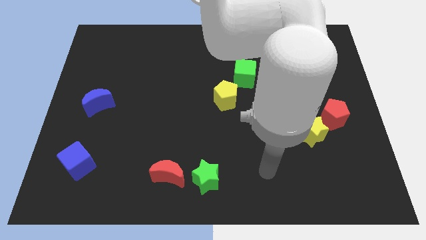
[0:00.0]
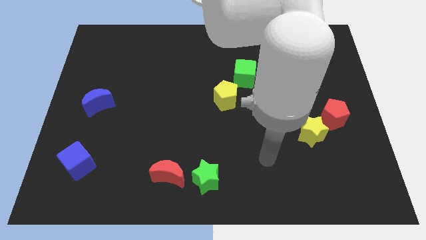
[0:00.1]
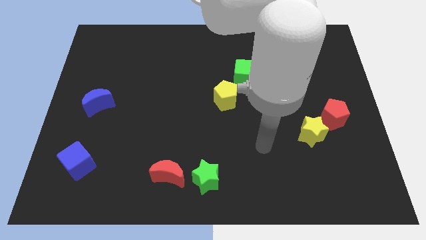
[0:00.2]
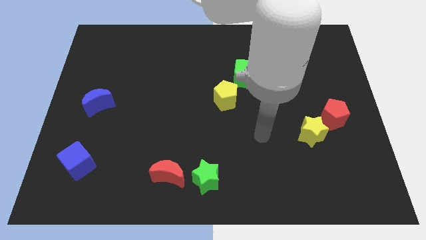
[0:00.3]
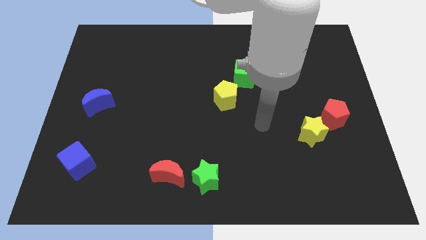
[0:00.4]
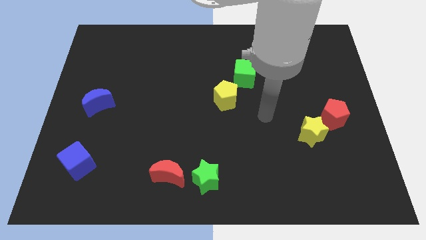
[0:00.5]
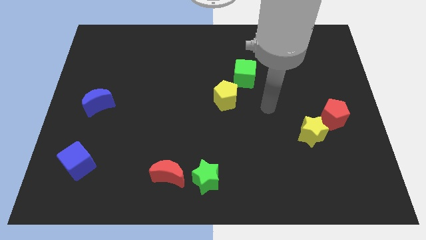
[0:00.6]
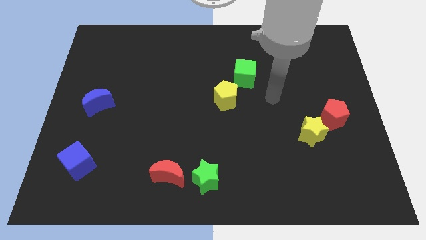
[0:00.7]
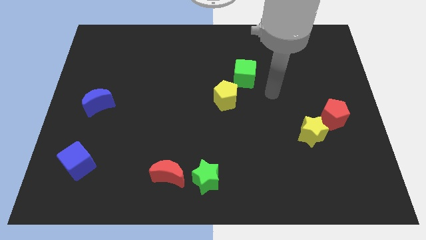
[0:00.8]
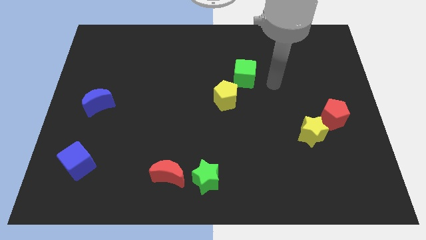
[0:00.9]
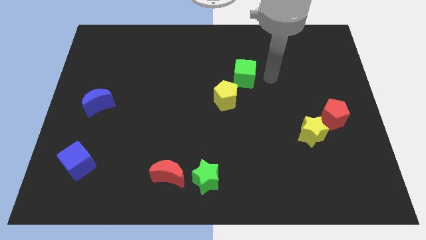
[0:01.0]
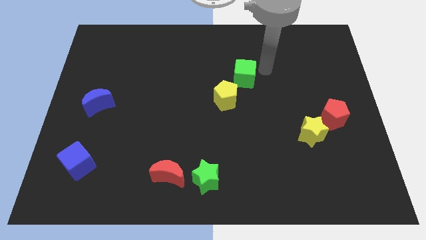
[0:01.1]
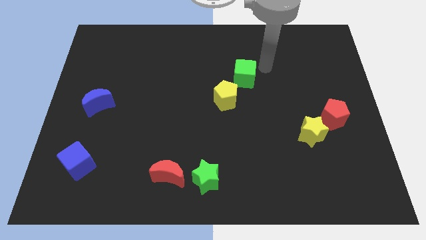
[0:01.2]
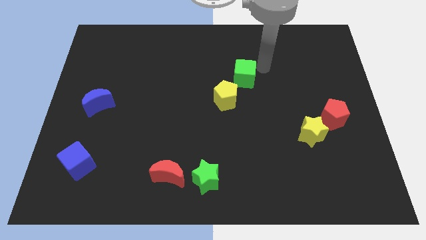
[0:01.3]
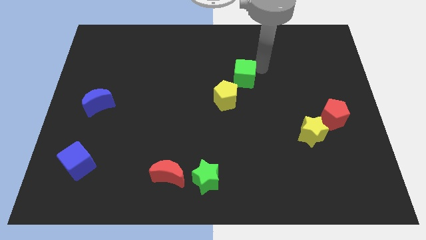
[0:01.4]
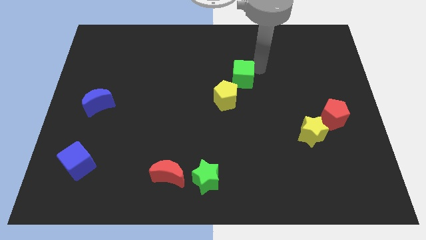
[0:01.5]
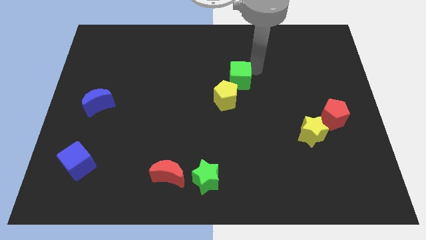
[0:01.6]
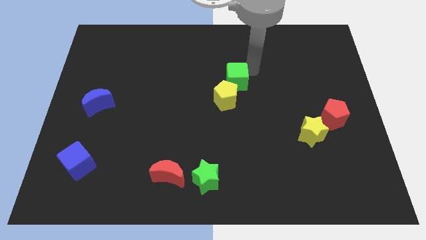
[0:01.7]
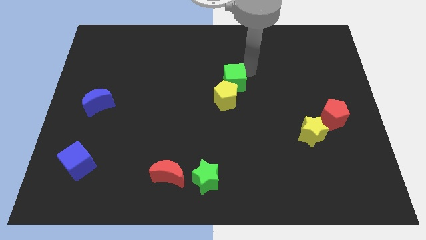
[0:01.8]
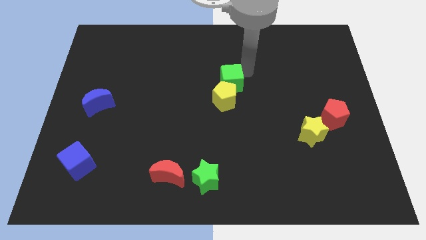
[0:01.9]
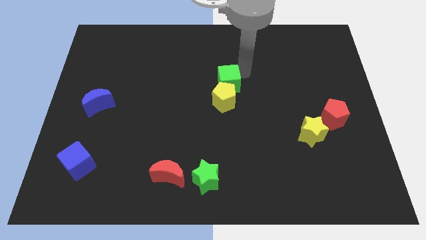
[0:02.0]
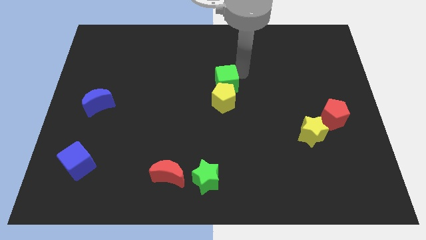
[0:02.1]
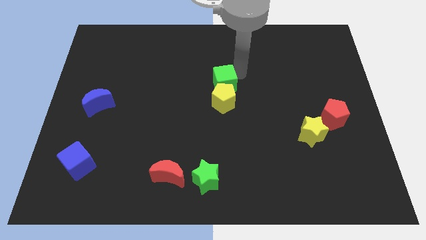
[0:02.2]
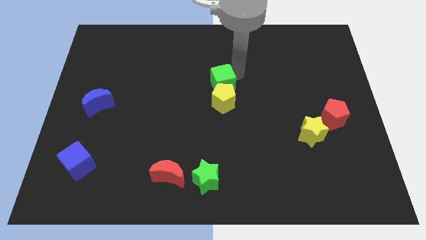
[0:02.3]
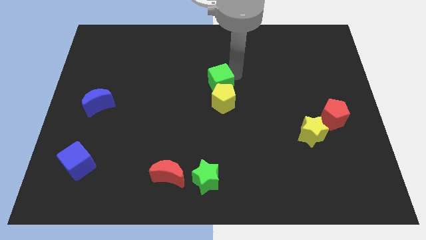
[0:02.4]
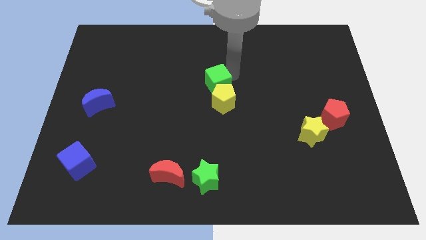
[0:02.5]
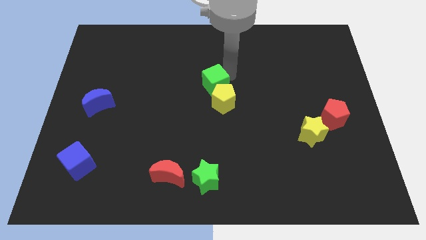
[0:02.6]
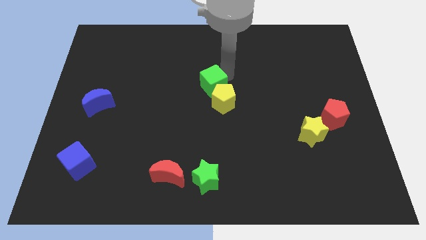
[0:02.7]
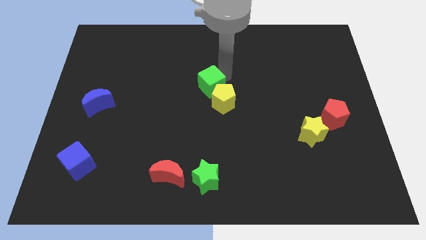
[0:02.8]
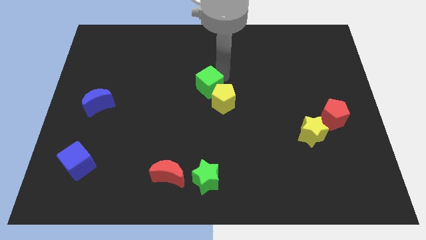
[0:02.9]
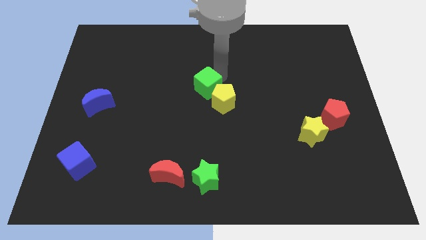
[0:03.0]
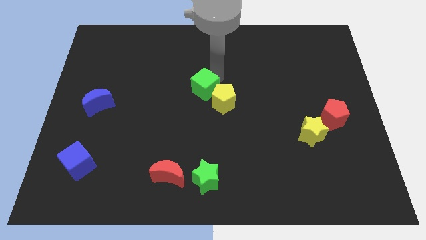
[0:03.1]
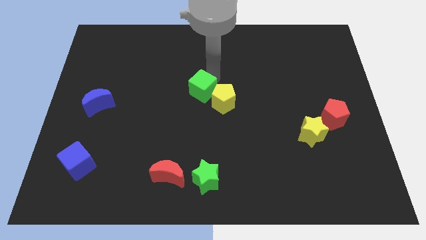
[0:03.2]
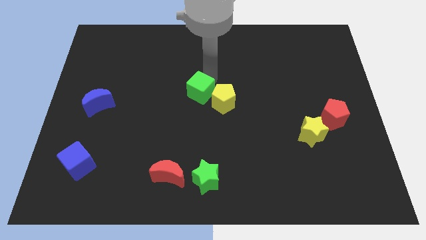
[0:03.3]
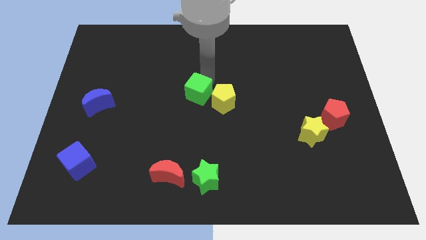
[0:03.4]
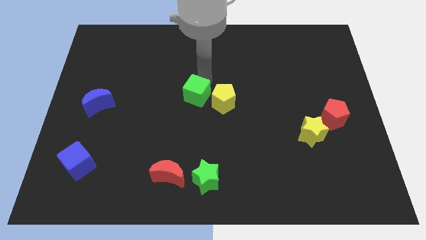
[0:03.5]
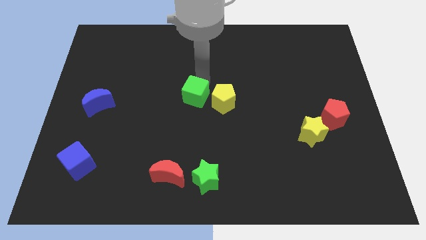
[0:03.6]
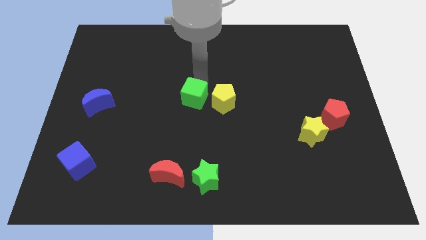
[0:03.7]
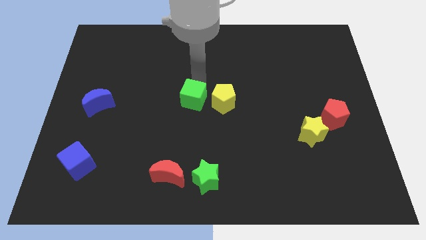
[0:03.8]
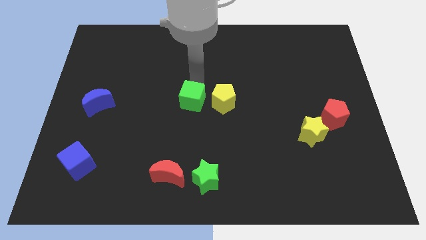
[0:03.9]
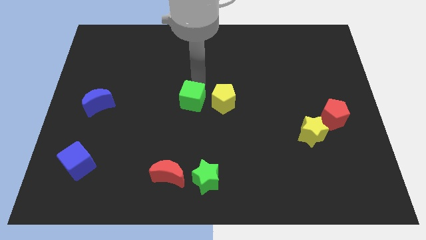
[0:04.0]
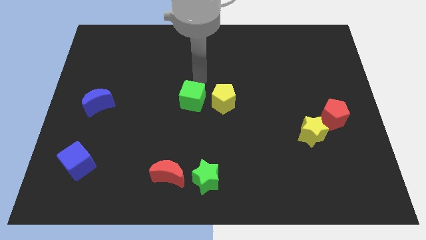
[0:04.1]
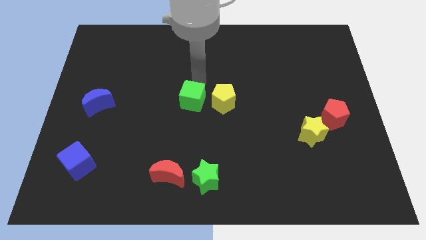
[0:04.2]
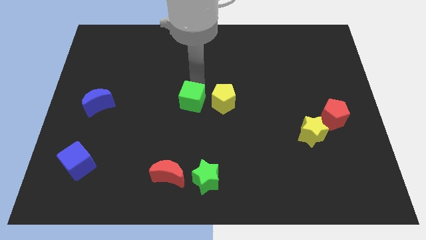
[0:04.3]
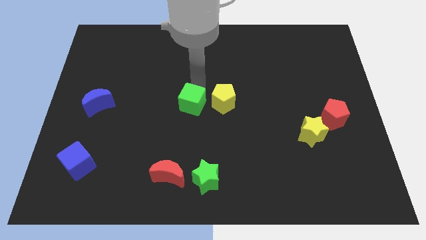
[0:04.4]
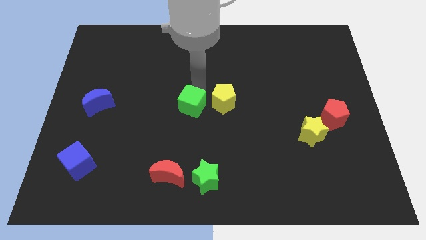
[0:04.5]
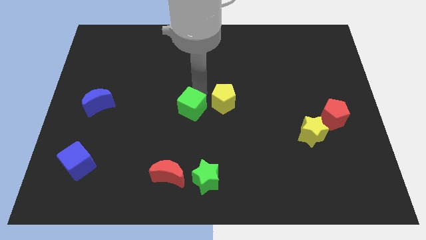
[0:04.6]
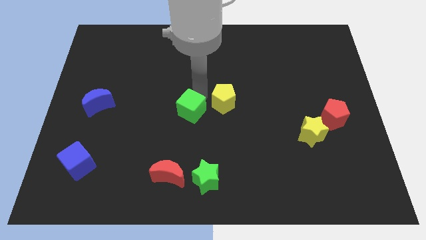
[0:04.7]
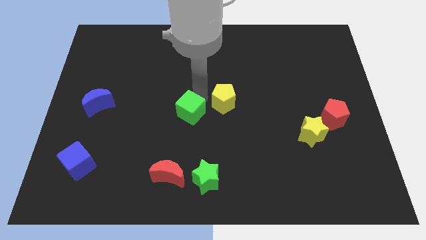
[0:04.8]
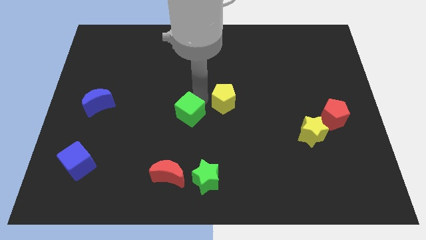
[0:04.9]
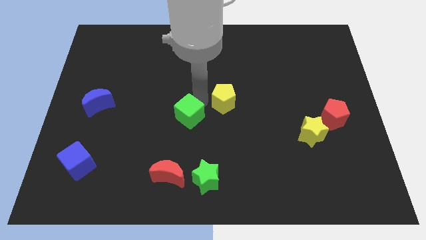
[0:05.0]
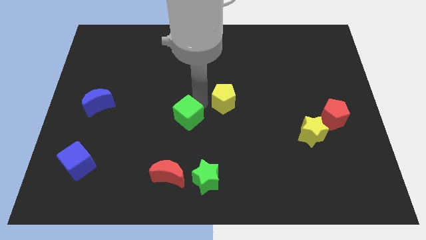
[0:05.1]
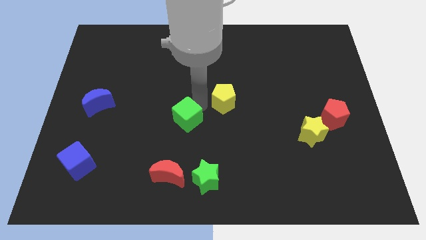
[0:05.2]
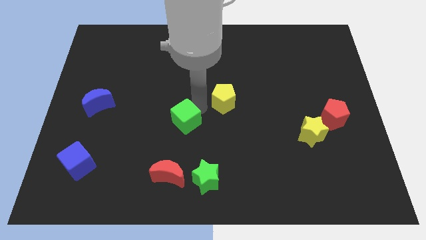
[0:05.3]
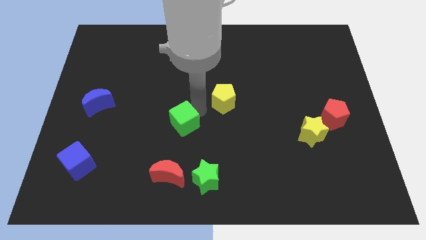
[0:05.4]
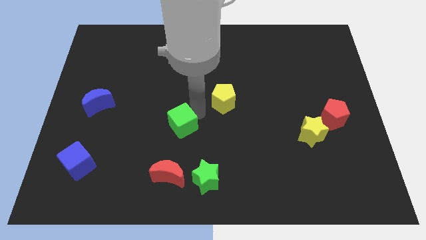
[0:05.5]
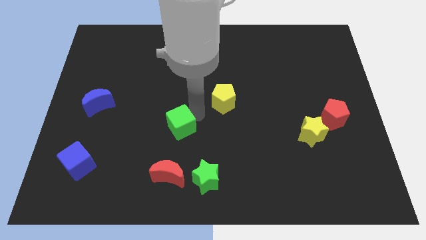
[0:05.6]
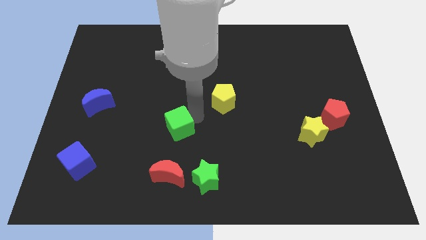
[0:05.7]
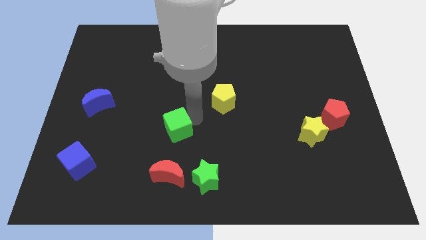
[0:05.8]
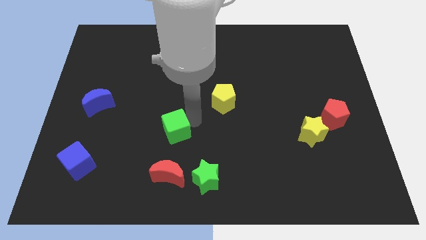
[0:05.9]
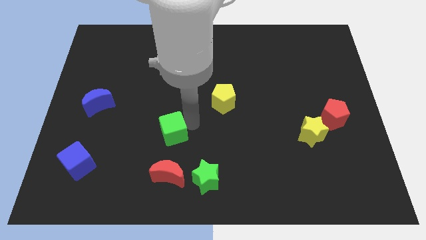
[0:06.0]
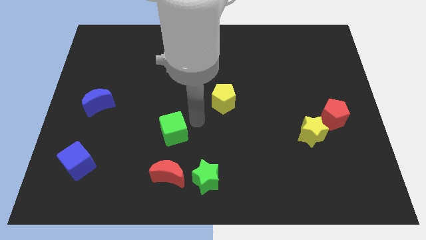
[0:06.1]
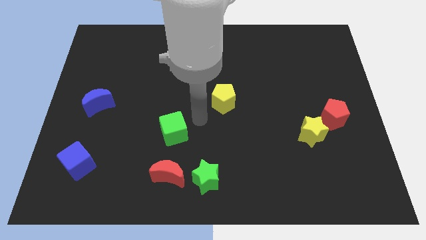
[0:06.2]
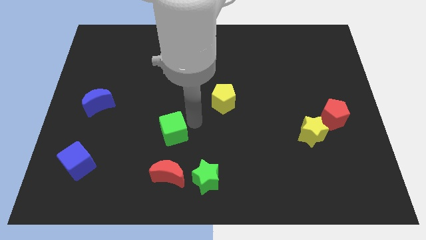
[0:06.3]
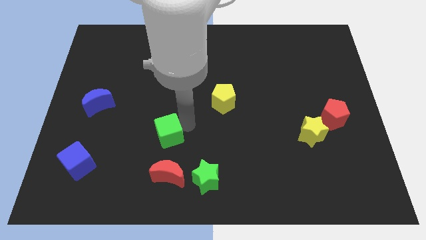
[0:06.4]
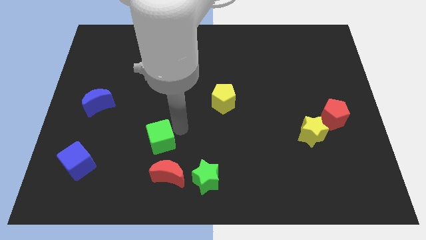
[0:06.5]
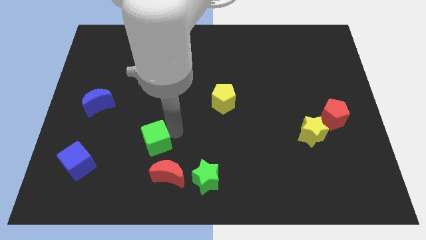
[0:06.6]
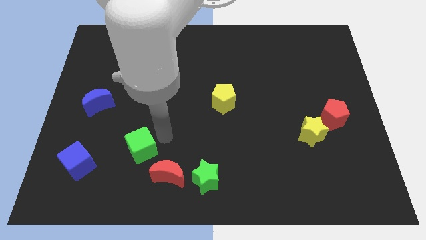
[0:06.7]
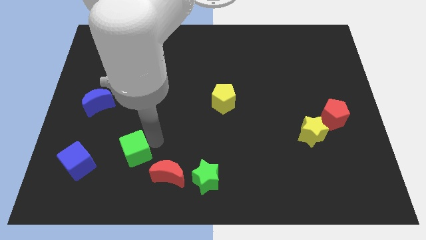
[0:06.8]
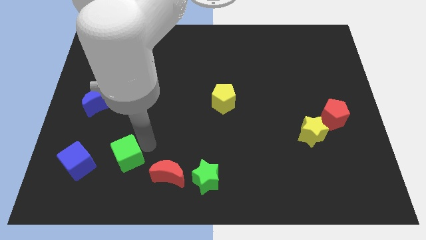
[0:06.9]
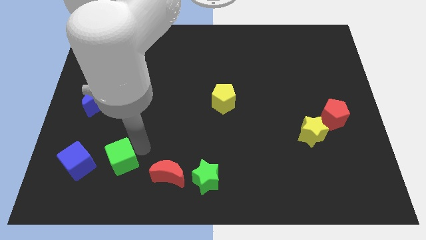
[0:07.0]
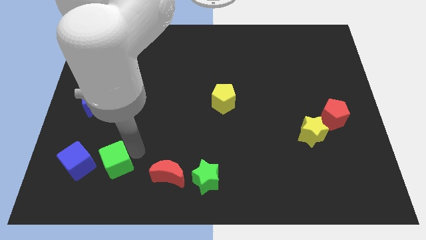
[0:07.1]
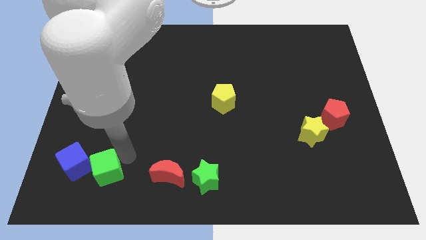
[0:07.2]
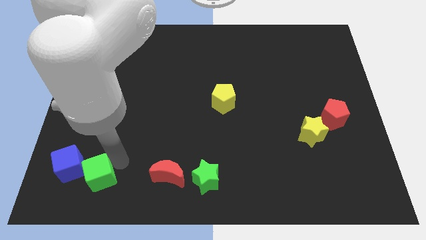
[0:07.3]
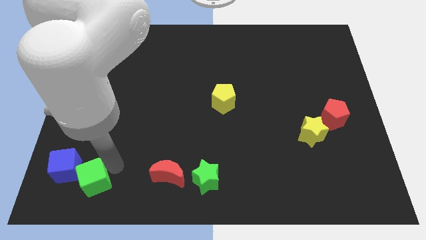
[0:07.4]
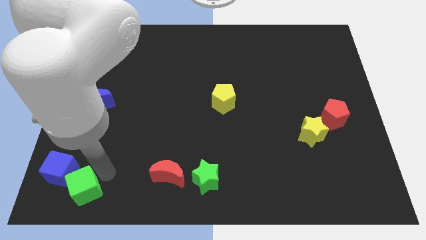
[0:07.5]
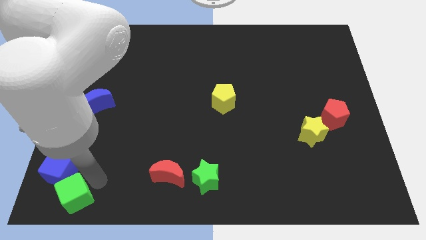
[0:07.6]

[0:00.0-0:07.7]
put the green cube to the lower left corner
